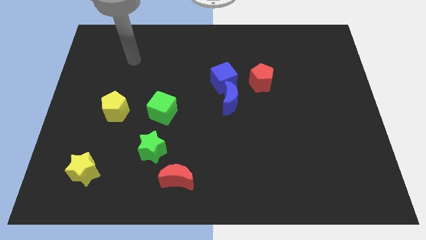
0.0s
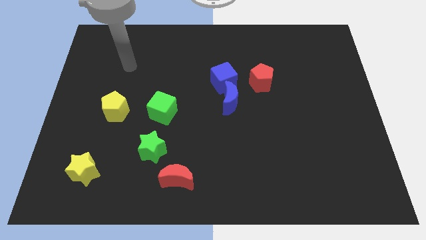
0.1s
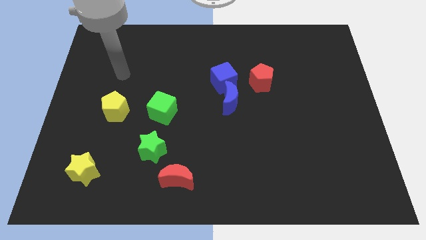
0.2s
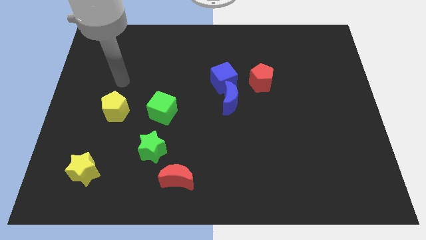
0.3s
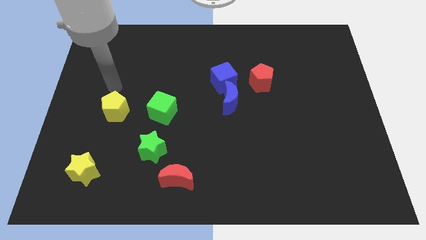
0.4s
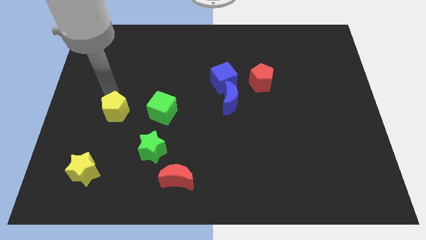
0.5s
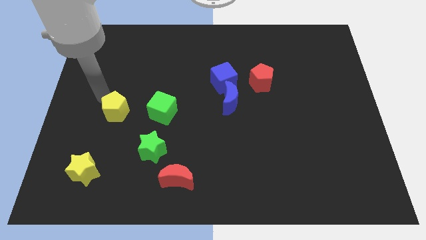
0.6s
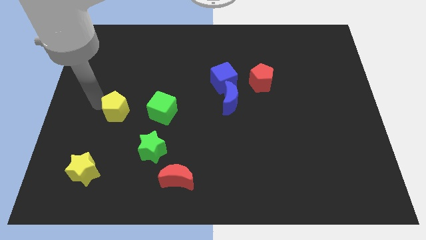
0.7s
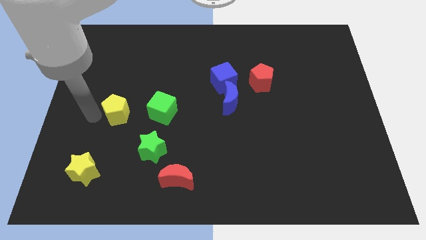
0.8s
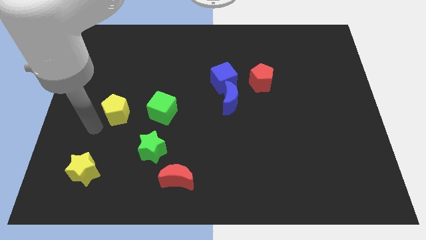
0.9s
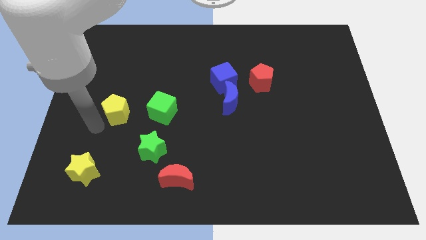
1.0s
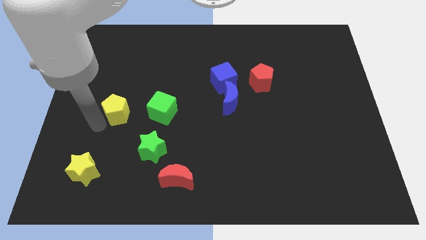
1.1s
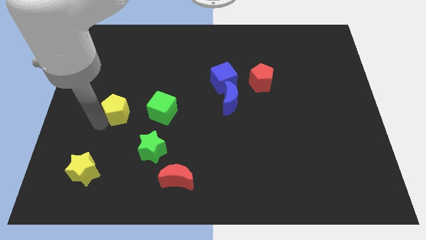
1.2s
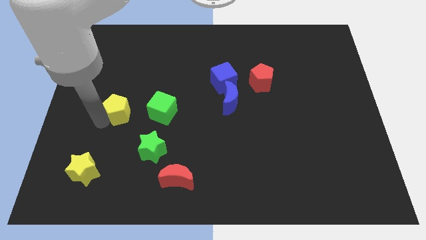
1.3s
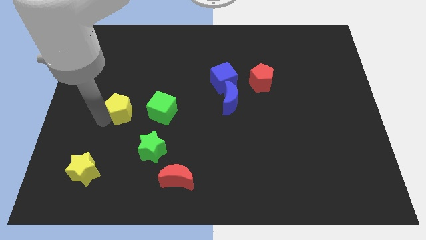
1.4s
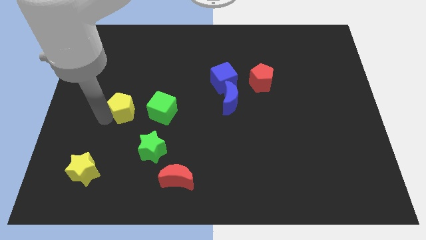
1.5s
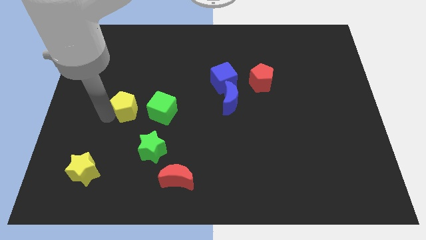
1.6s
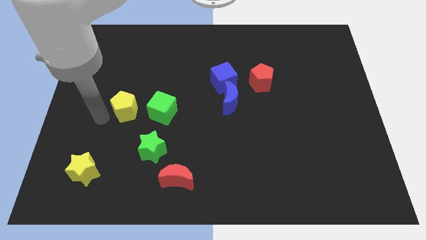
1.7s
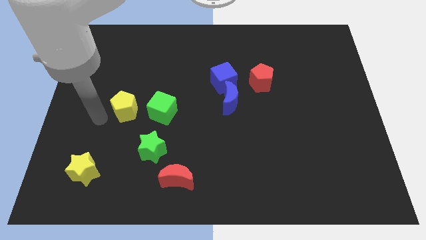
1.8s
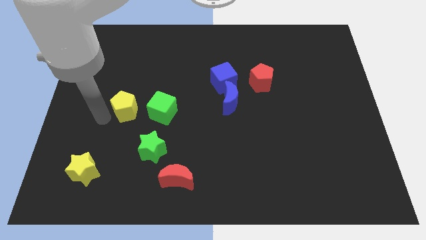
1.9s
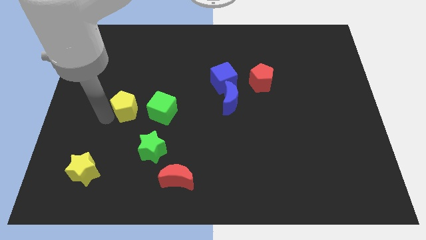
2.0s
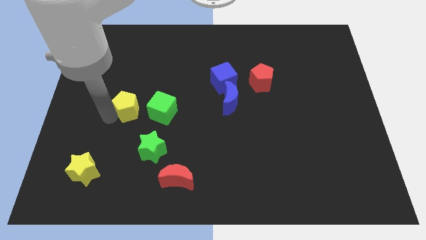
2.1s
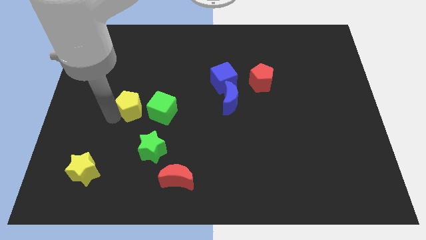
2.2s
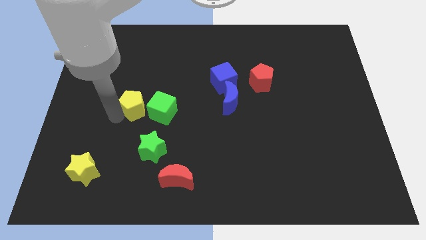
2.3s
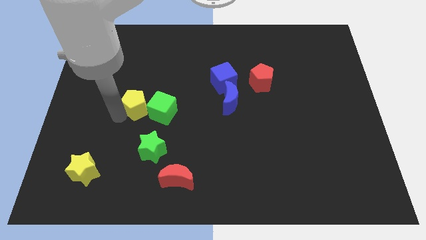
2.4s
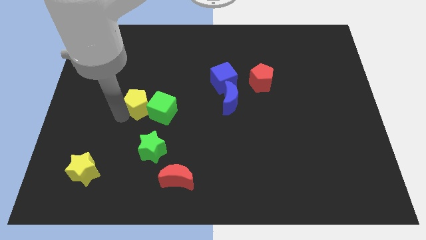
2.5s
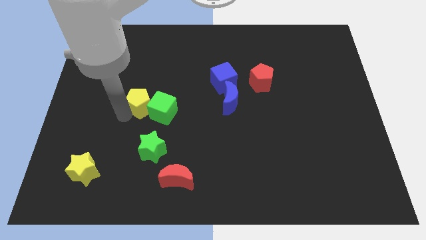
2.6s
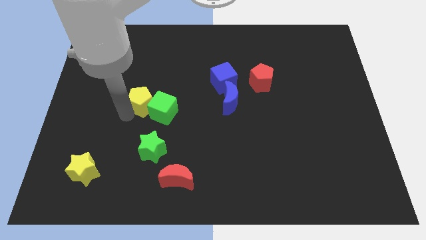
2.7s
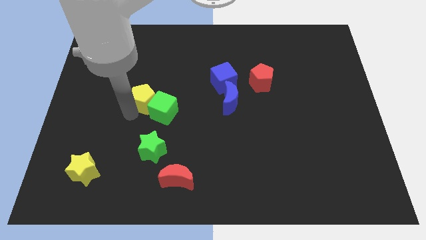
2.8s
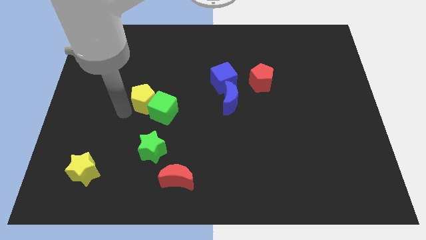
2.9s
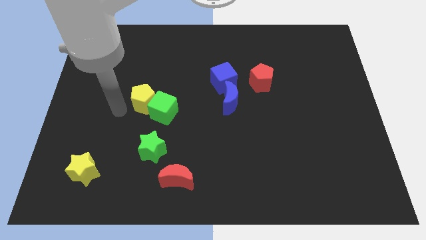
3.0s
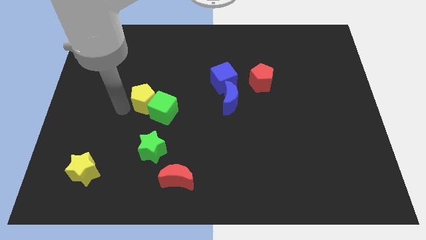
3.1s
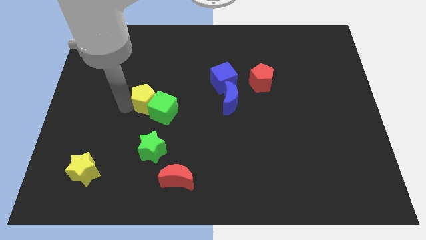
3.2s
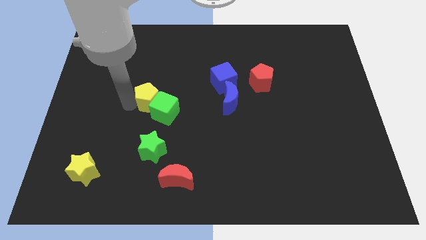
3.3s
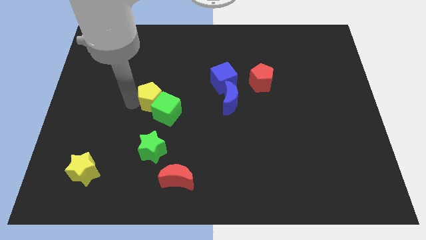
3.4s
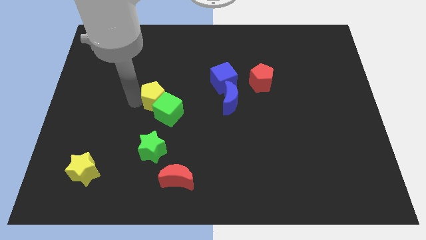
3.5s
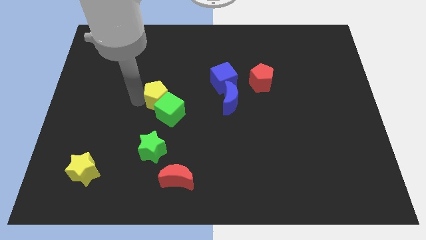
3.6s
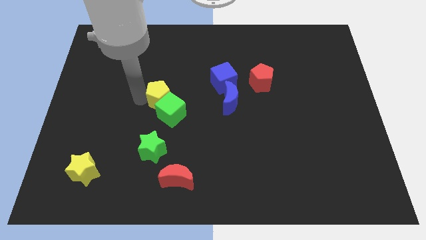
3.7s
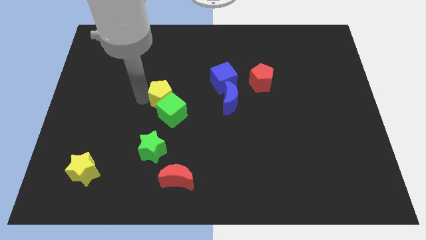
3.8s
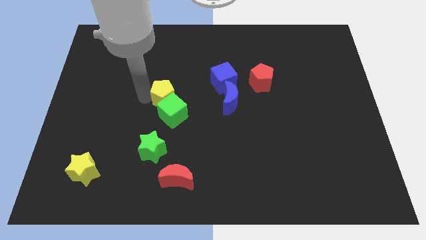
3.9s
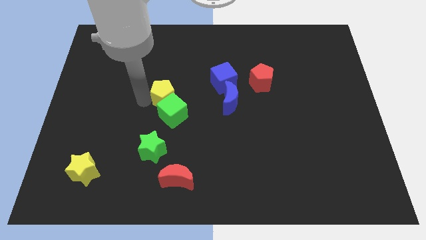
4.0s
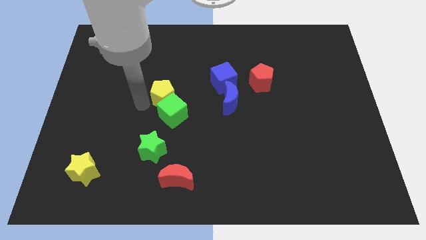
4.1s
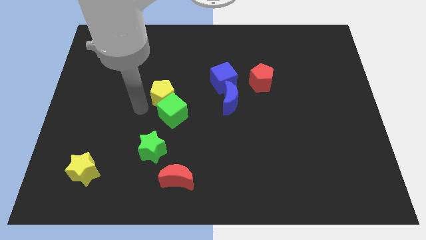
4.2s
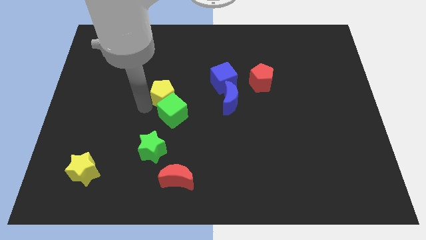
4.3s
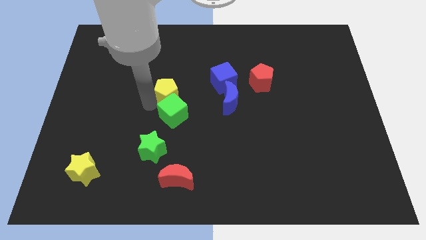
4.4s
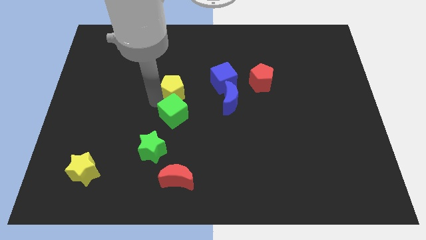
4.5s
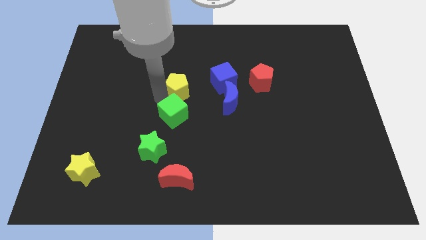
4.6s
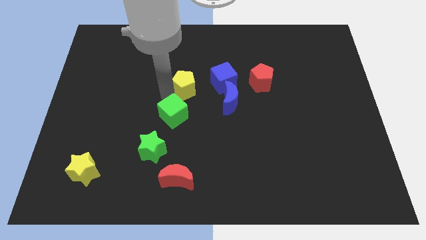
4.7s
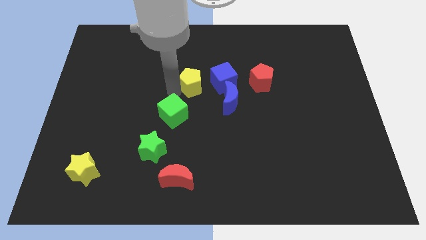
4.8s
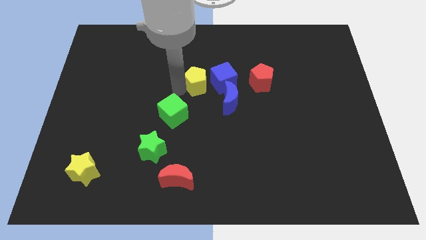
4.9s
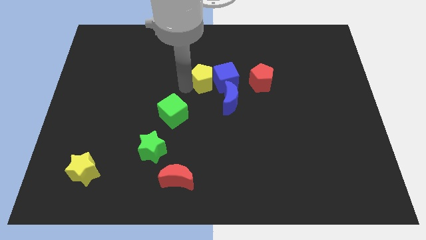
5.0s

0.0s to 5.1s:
slide the yellow pentagon to the blue cube

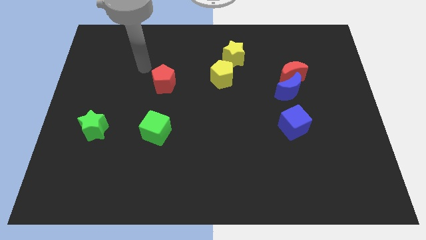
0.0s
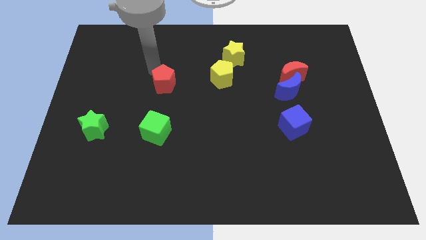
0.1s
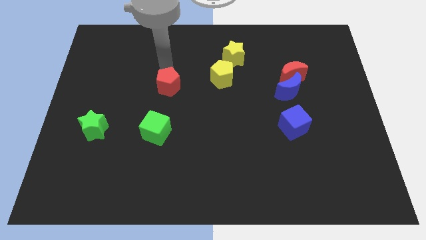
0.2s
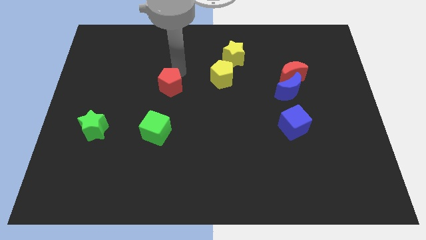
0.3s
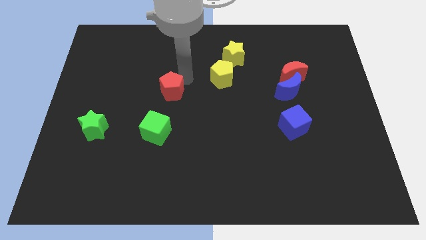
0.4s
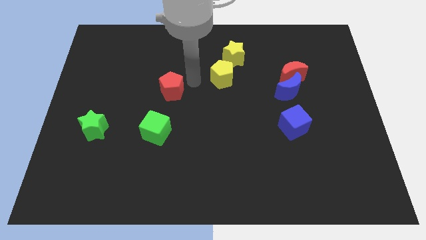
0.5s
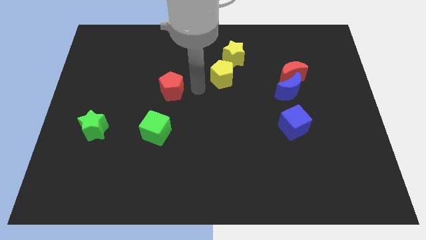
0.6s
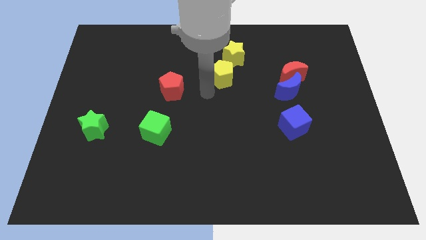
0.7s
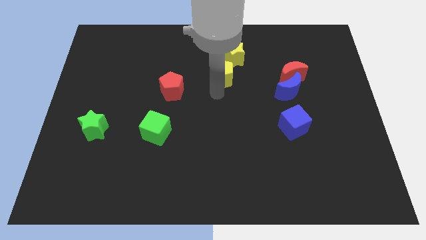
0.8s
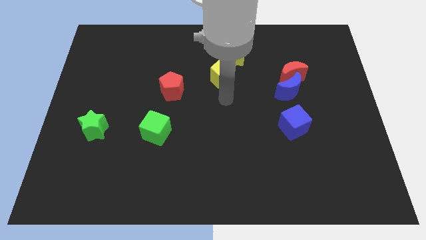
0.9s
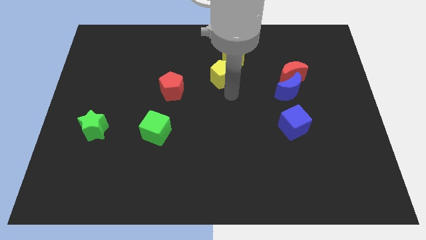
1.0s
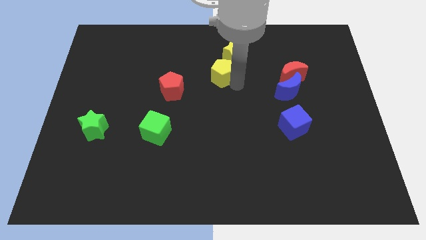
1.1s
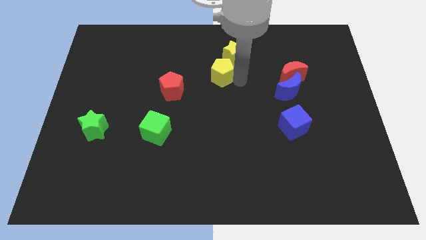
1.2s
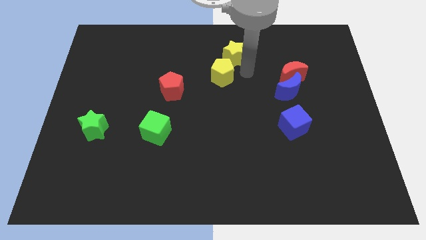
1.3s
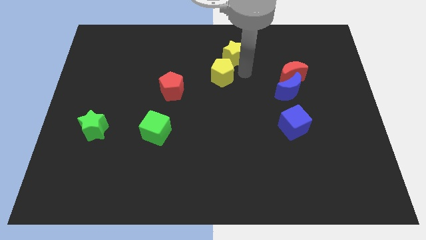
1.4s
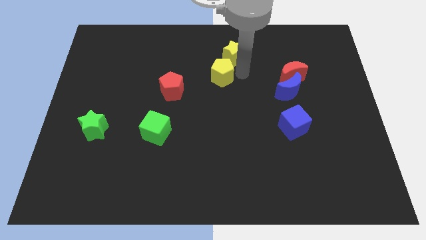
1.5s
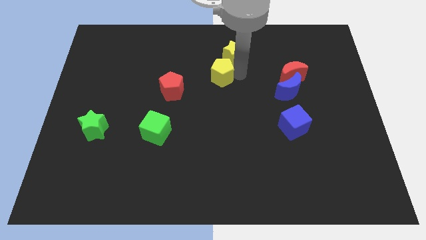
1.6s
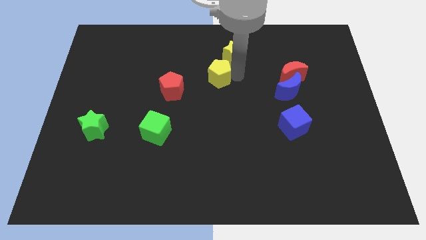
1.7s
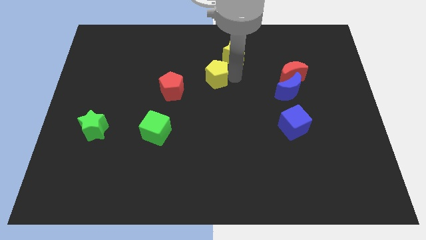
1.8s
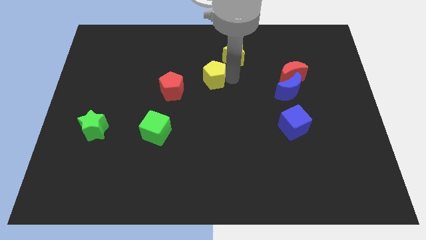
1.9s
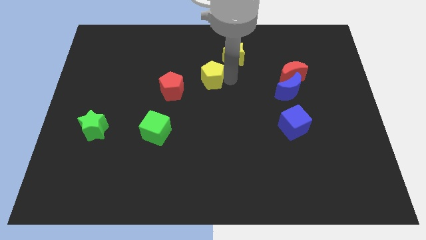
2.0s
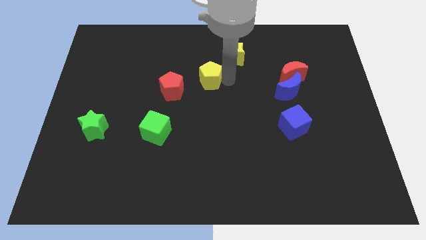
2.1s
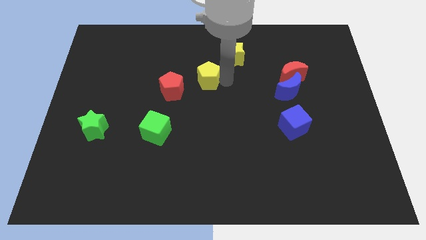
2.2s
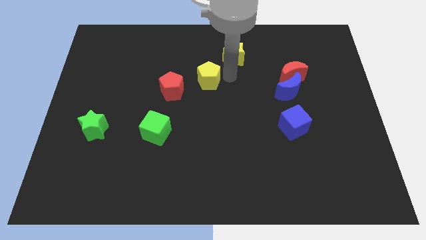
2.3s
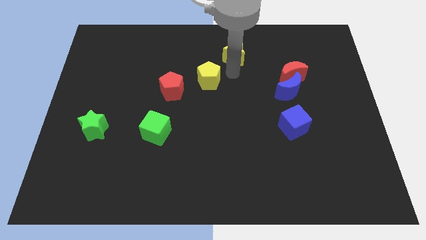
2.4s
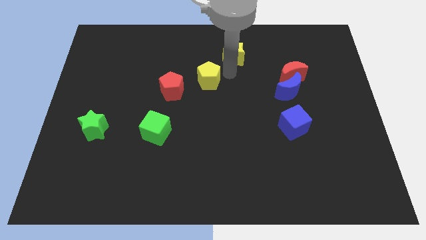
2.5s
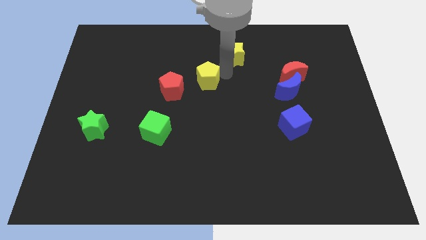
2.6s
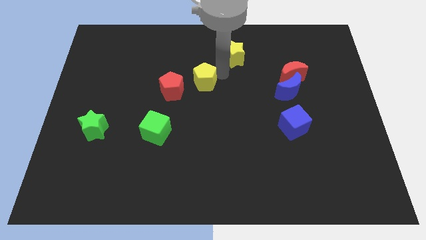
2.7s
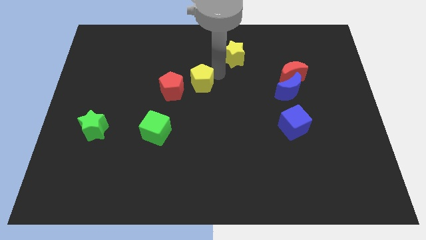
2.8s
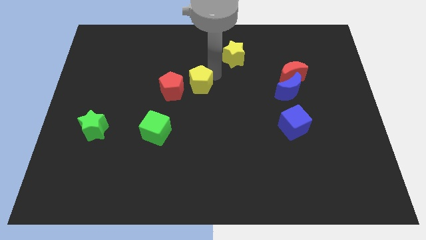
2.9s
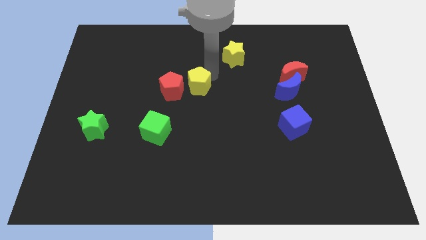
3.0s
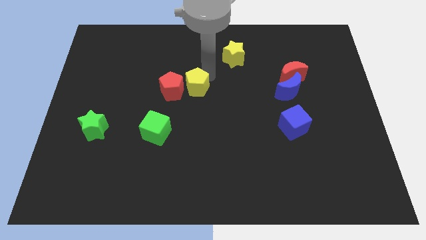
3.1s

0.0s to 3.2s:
move the yellow pentagon to the red pentagon
